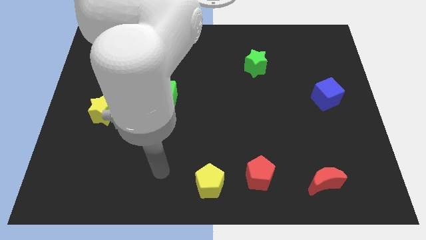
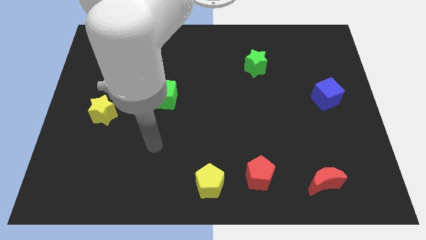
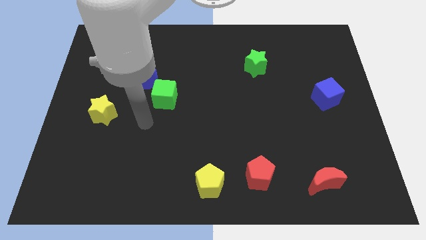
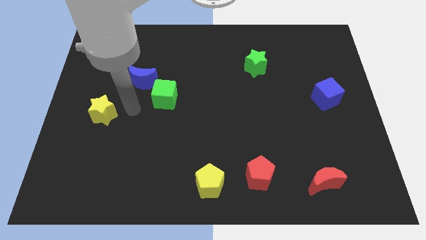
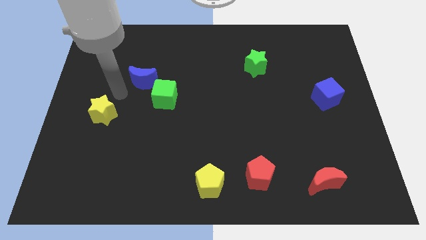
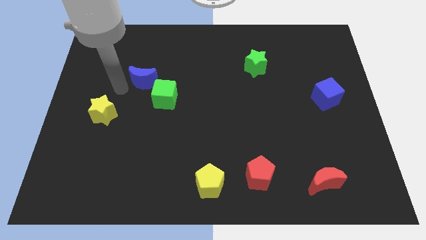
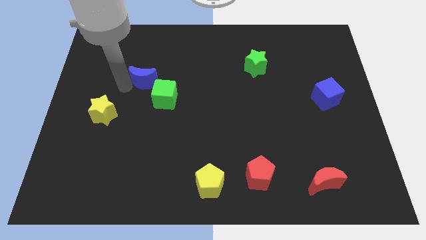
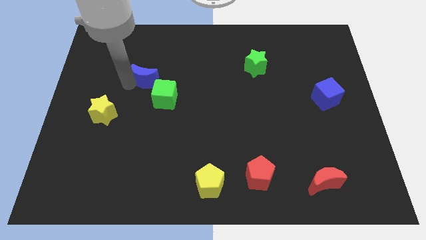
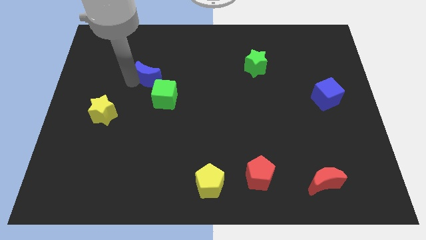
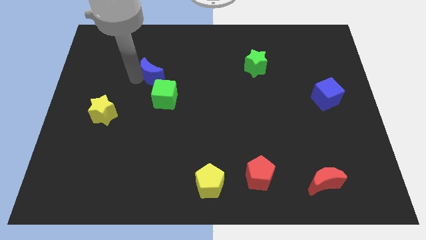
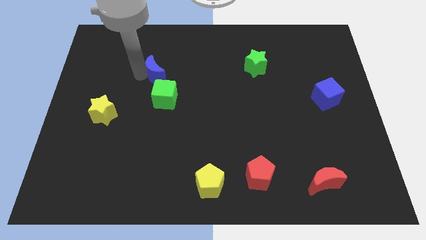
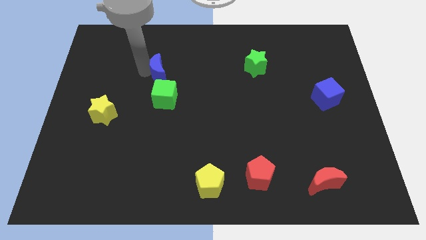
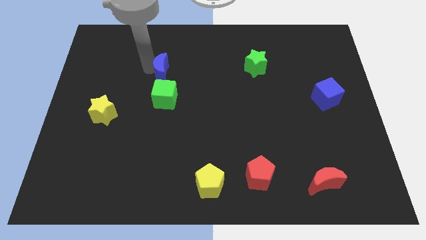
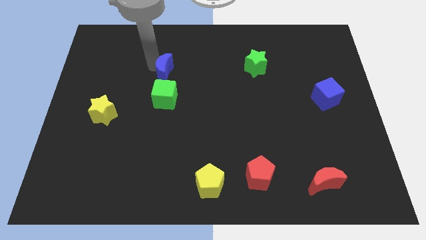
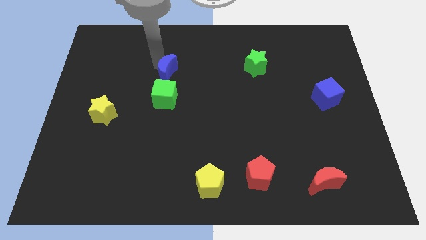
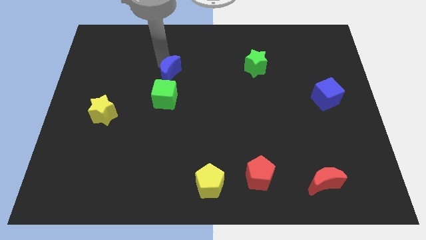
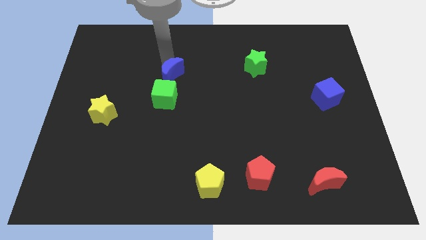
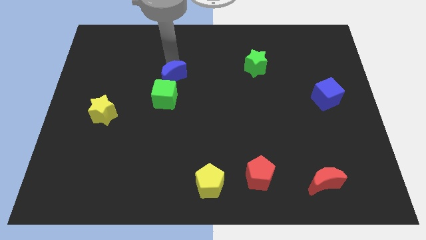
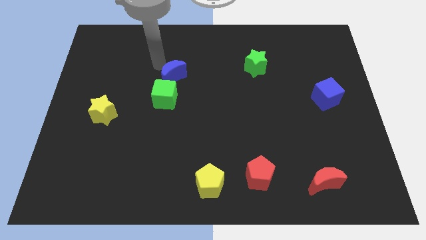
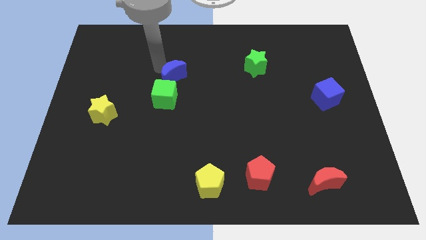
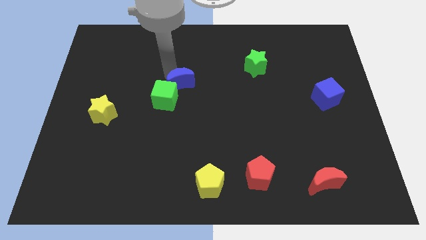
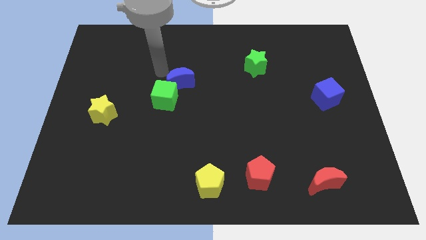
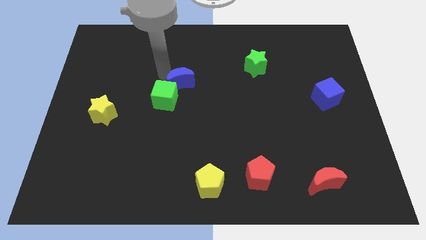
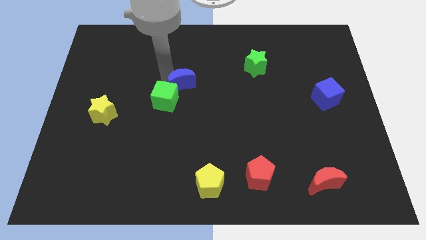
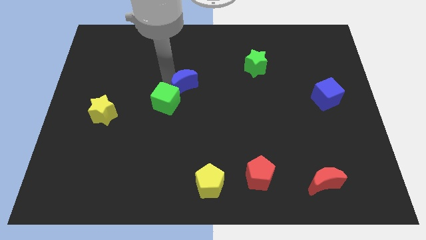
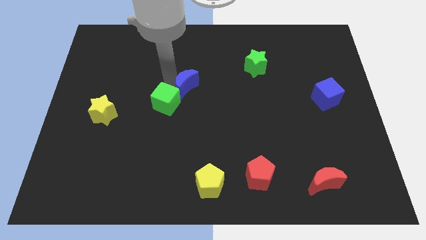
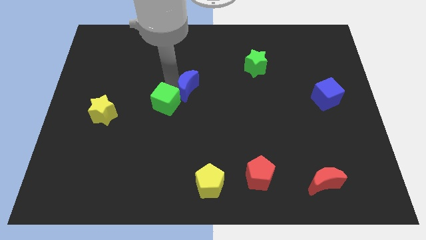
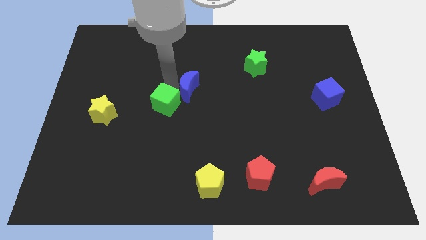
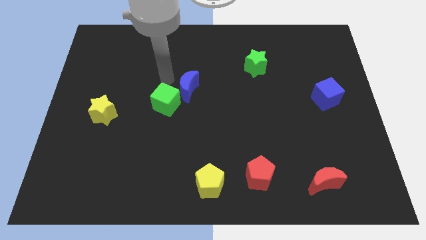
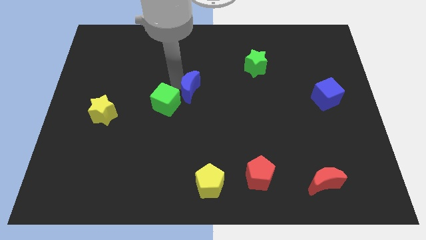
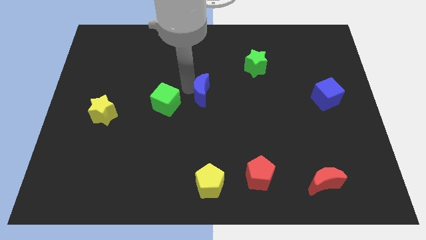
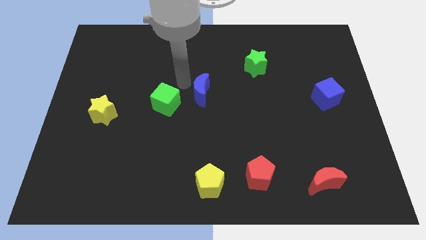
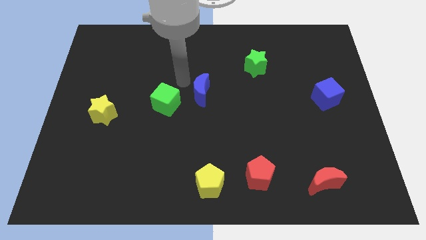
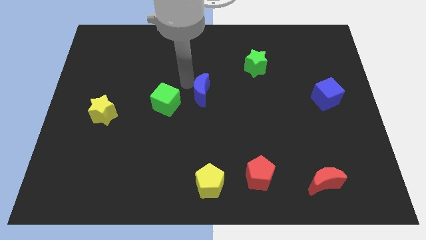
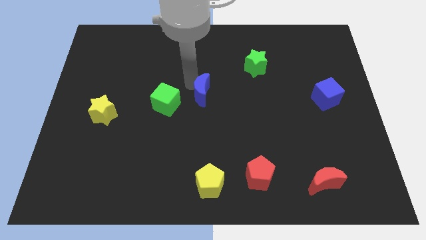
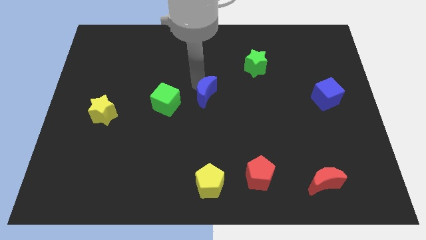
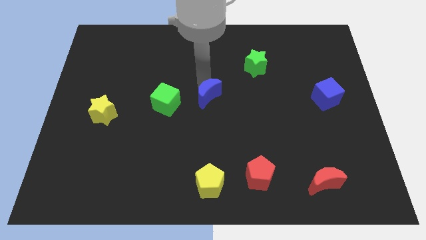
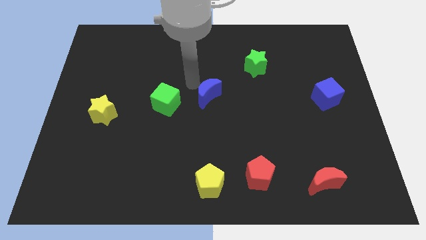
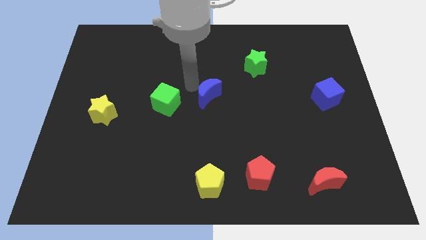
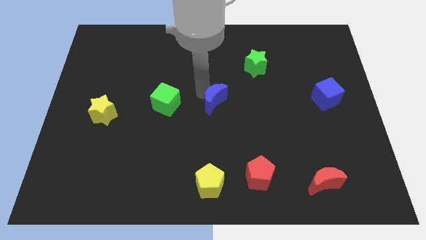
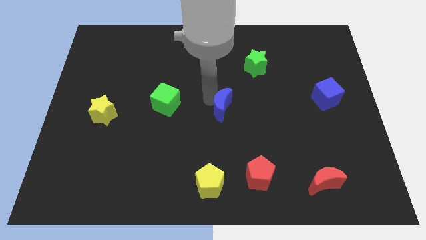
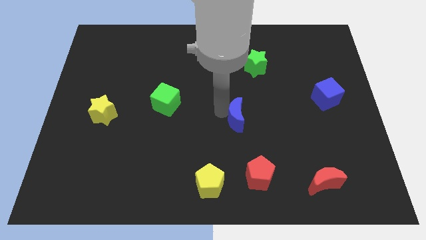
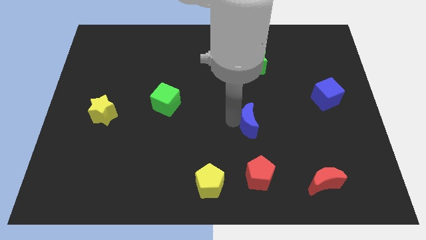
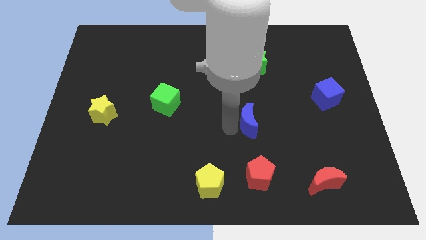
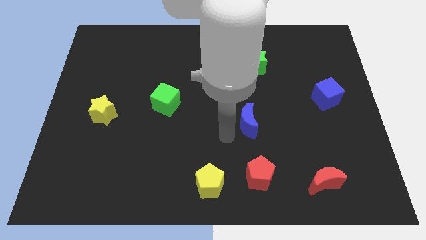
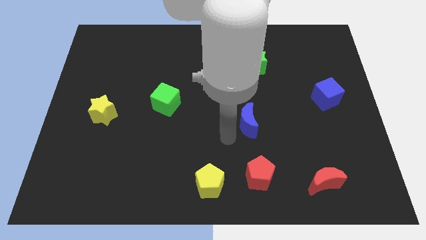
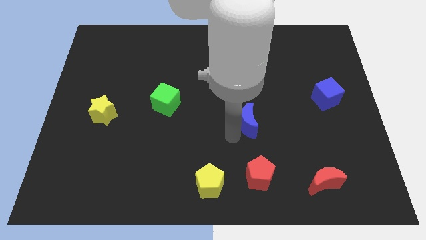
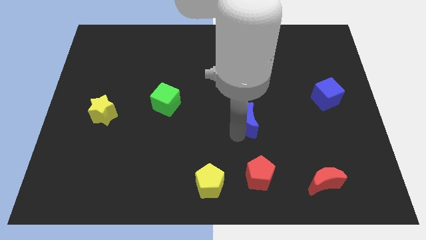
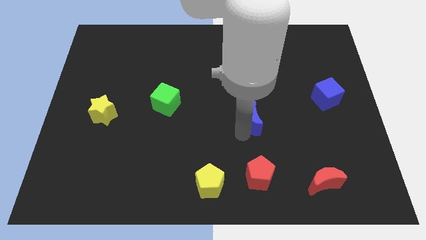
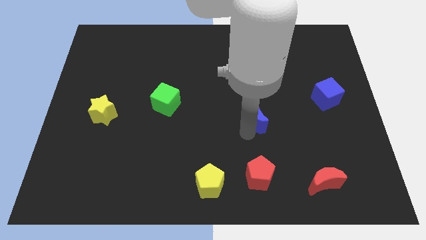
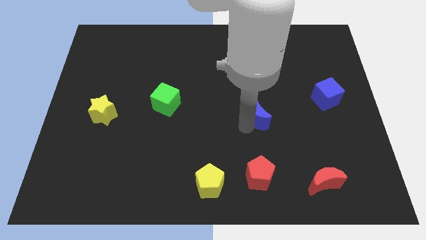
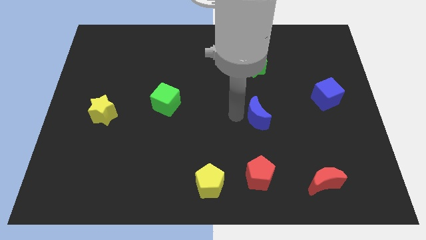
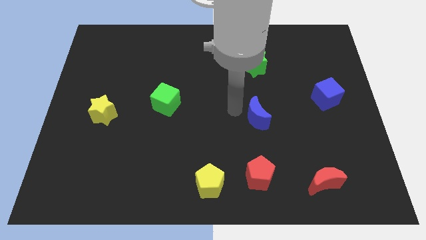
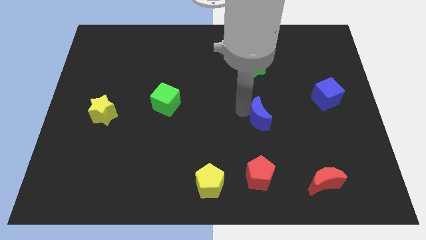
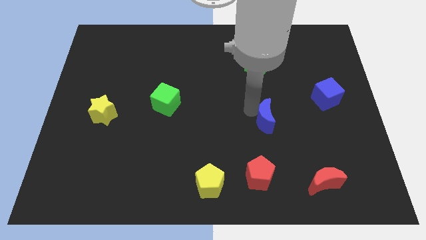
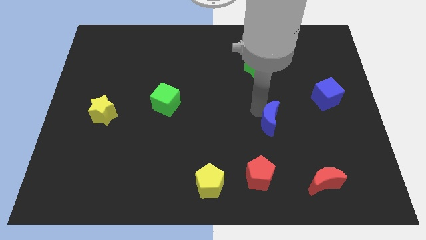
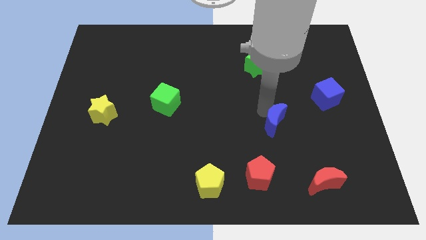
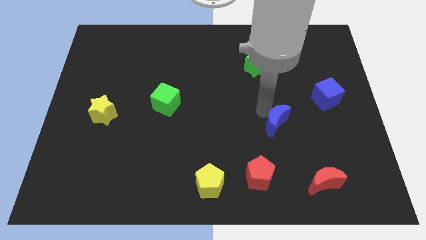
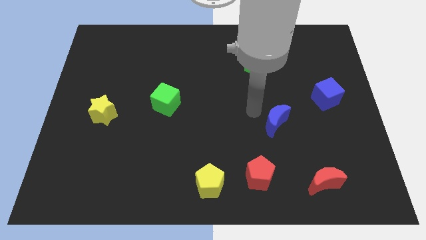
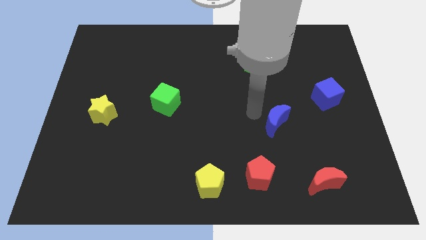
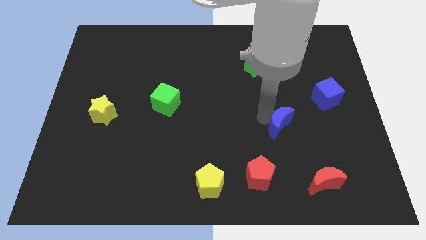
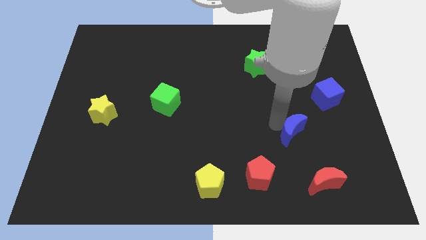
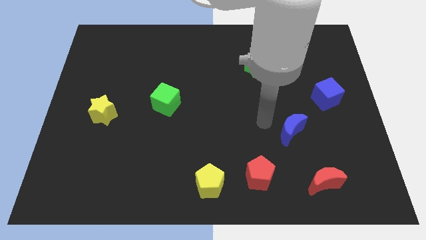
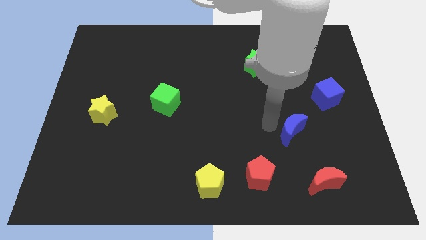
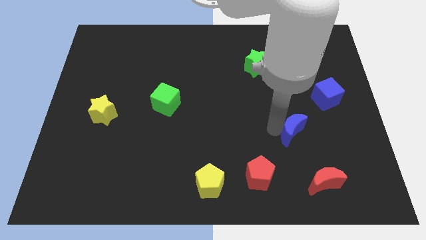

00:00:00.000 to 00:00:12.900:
slide the blue moon above the red moon

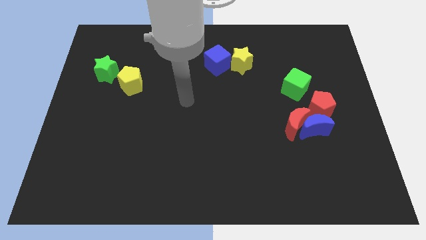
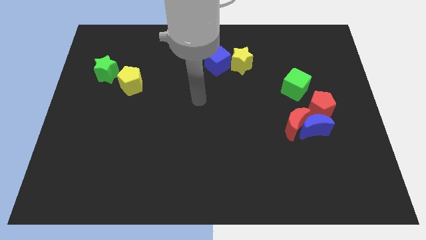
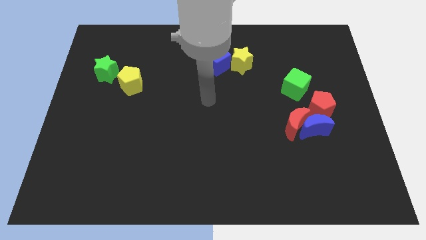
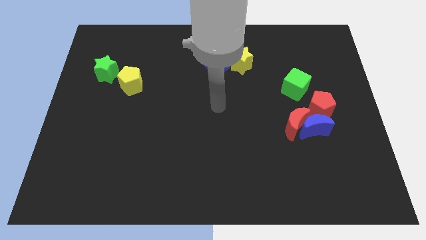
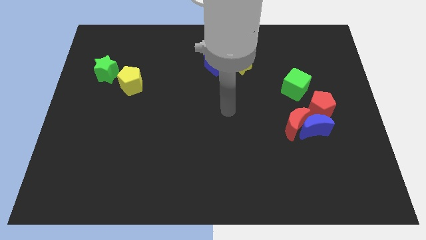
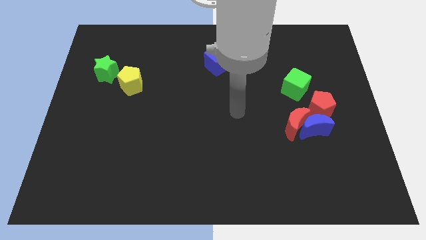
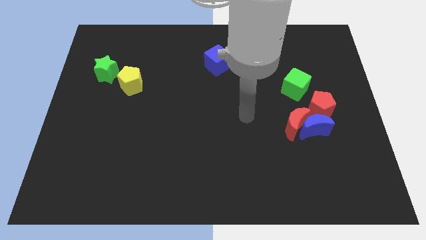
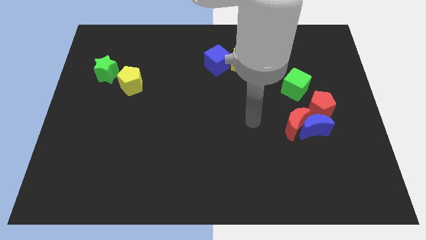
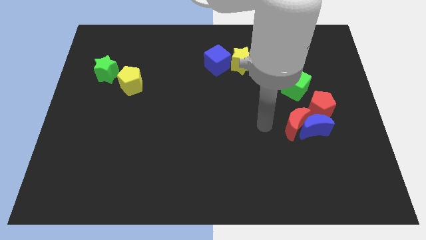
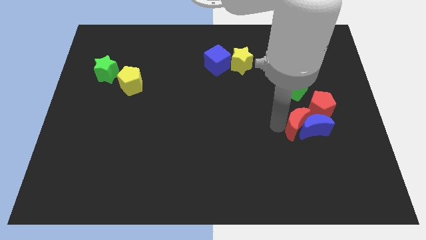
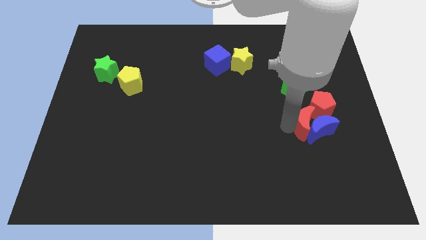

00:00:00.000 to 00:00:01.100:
put the red pentagon above the red moon
